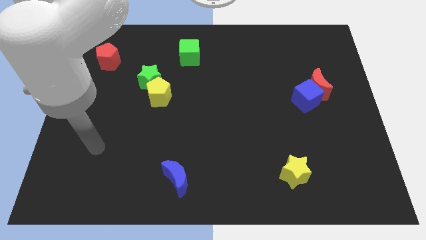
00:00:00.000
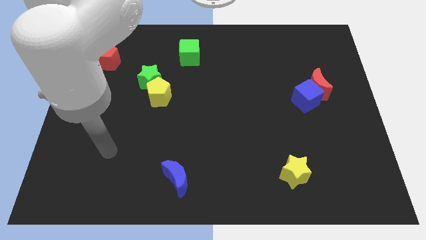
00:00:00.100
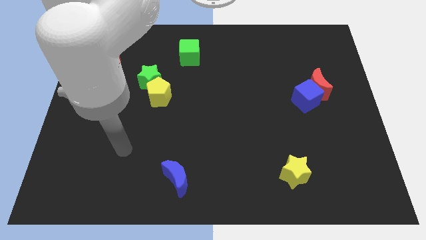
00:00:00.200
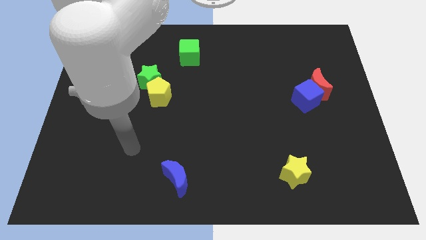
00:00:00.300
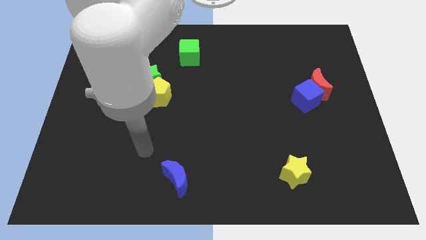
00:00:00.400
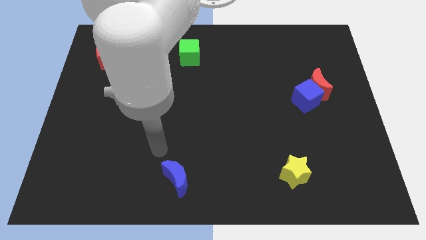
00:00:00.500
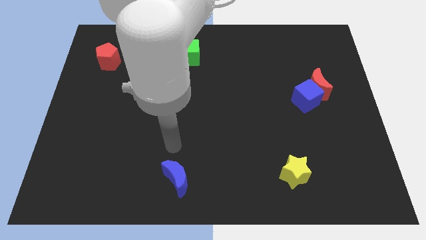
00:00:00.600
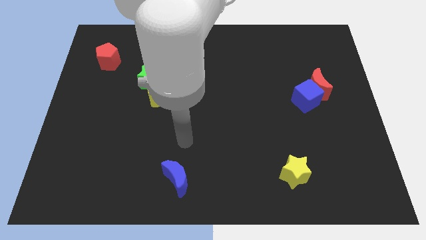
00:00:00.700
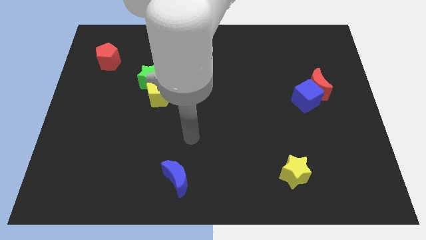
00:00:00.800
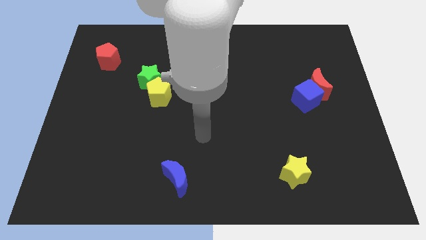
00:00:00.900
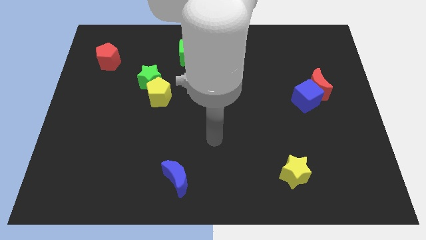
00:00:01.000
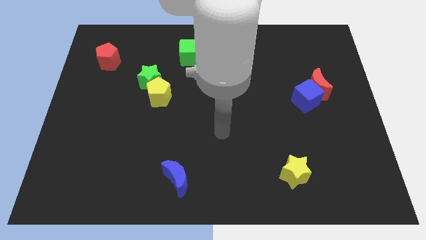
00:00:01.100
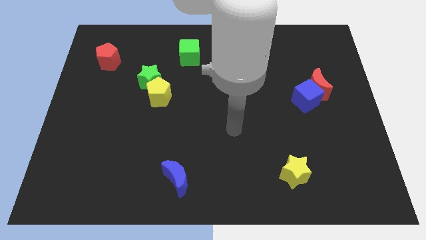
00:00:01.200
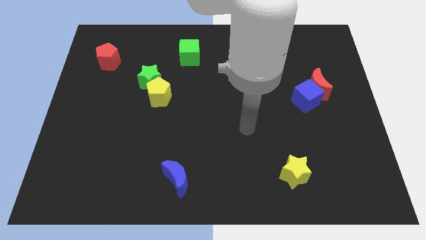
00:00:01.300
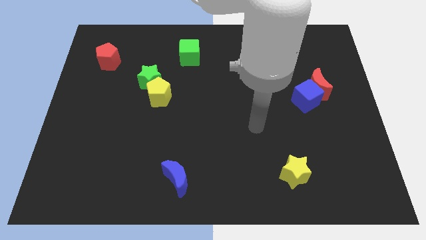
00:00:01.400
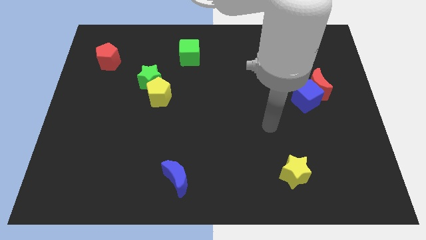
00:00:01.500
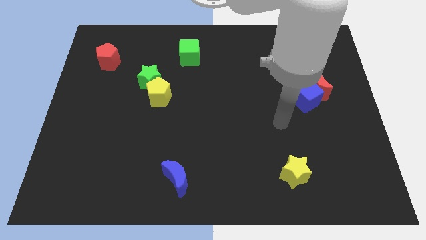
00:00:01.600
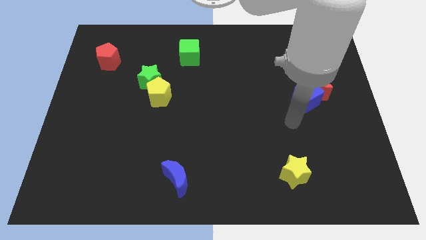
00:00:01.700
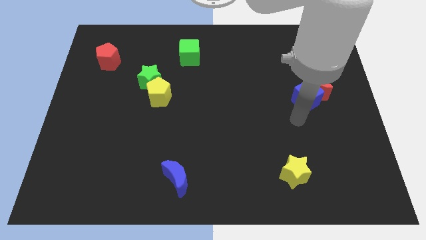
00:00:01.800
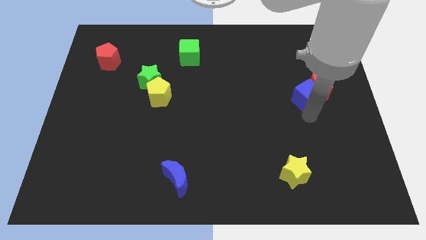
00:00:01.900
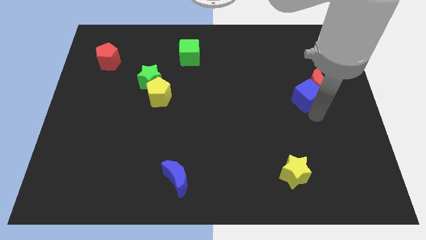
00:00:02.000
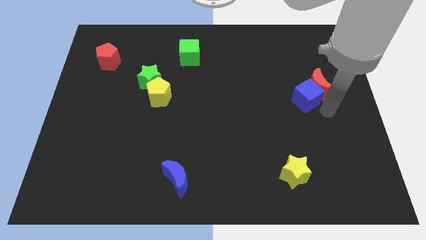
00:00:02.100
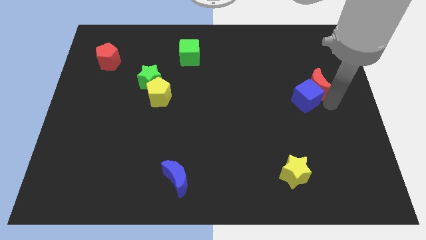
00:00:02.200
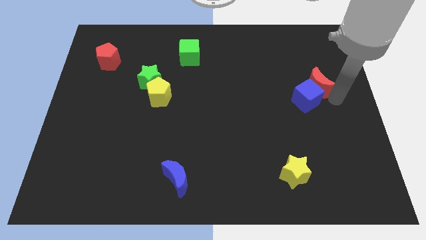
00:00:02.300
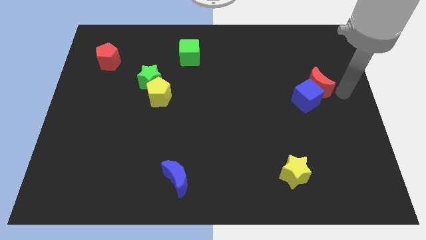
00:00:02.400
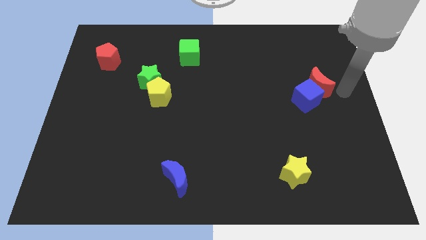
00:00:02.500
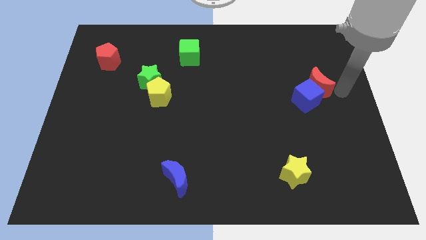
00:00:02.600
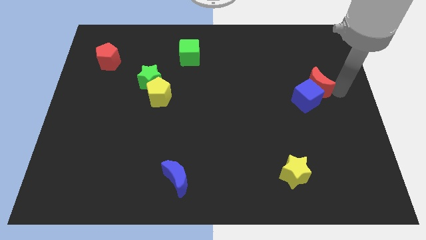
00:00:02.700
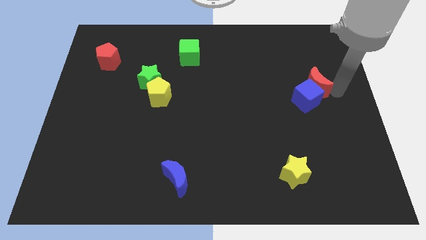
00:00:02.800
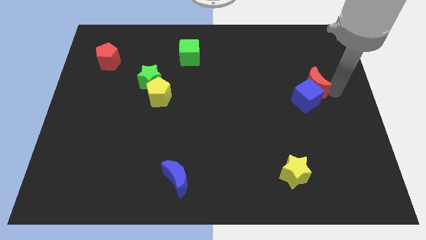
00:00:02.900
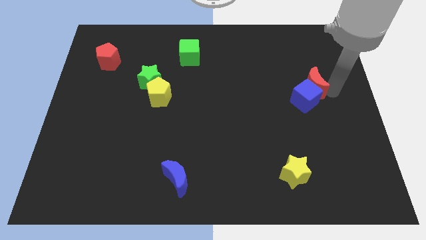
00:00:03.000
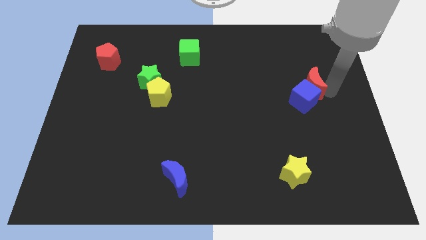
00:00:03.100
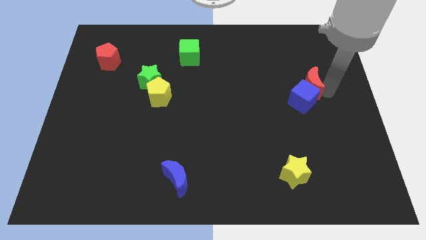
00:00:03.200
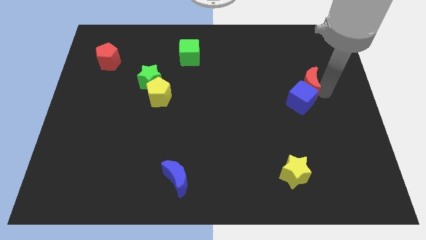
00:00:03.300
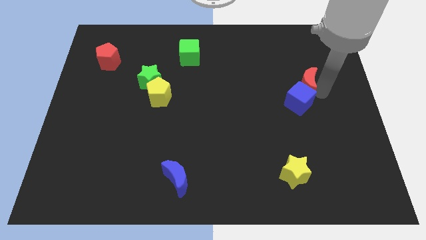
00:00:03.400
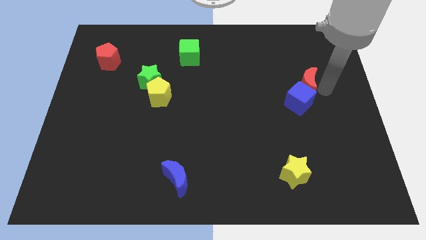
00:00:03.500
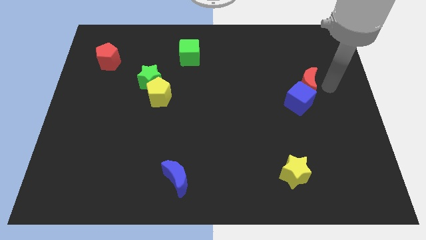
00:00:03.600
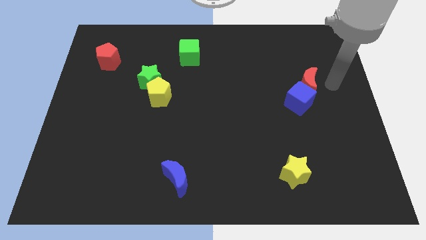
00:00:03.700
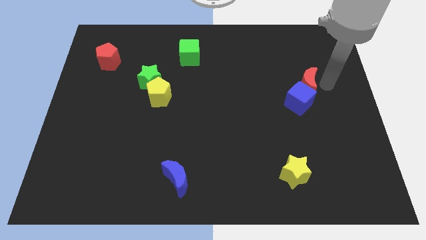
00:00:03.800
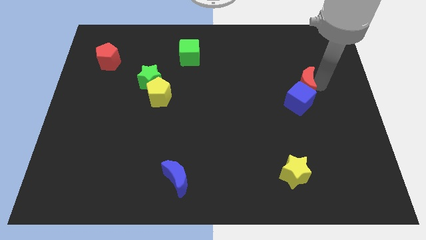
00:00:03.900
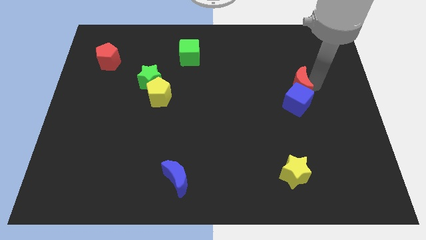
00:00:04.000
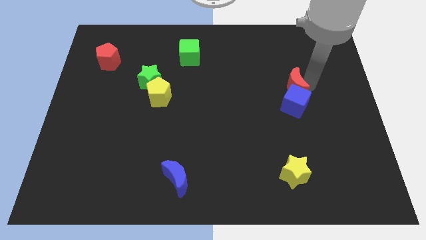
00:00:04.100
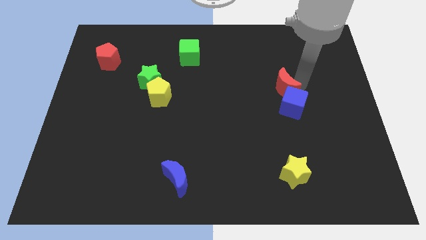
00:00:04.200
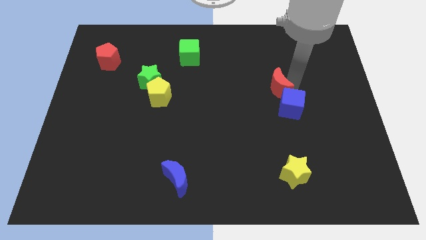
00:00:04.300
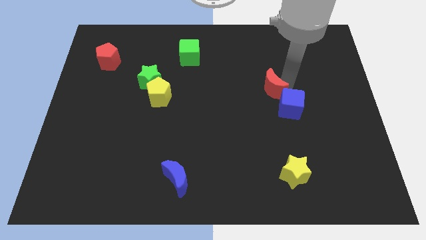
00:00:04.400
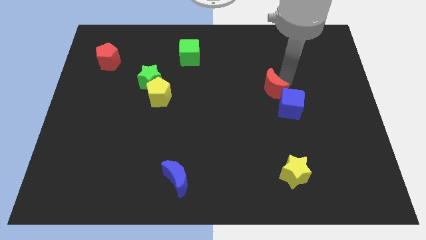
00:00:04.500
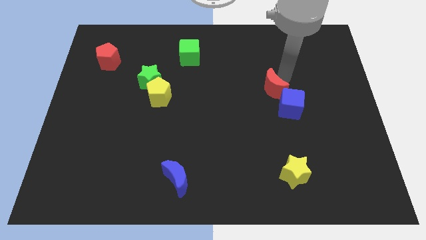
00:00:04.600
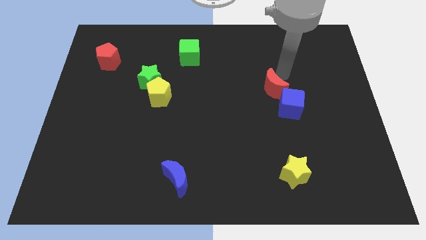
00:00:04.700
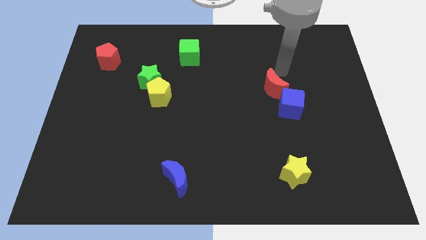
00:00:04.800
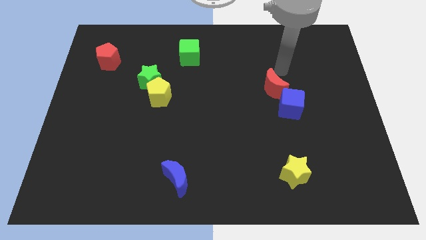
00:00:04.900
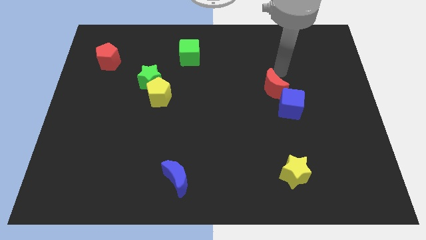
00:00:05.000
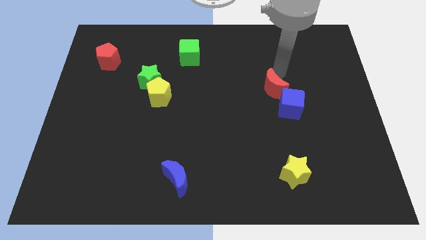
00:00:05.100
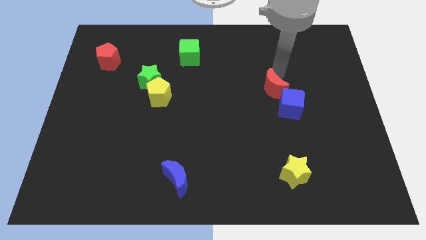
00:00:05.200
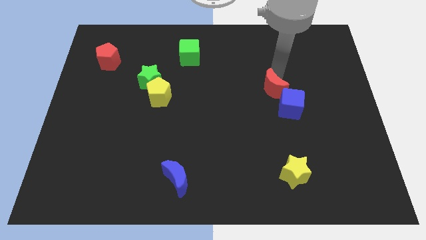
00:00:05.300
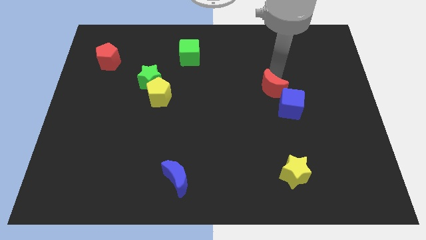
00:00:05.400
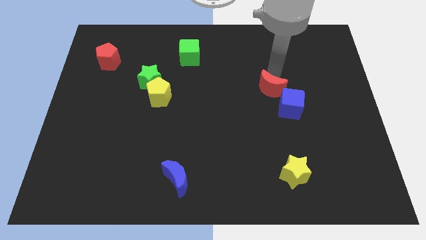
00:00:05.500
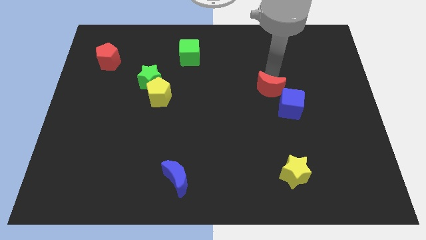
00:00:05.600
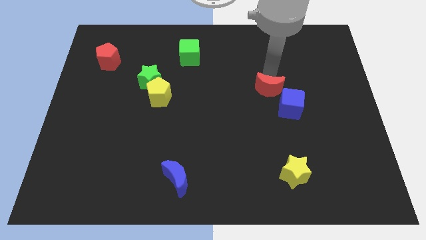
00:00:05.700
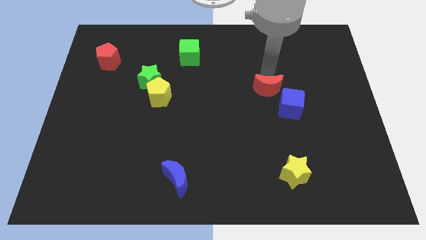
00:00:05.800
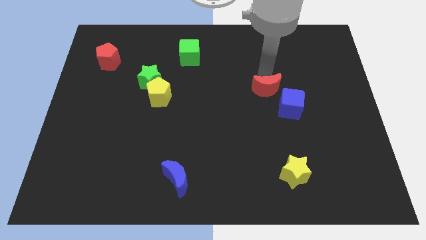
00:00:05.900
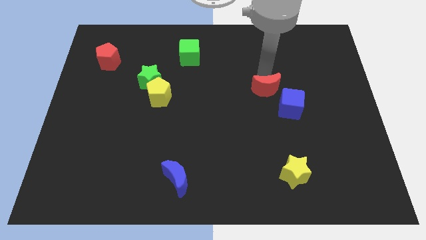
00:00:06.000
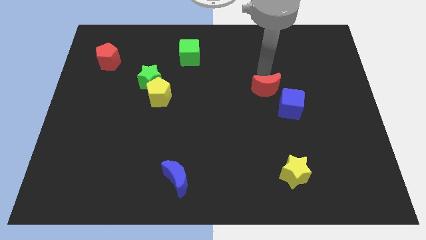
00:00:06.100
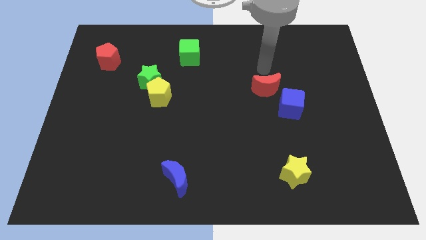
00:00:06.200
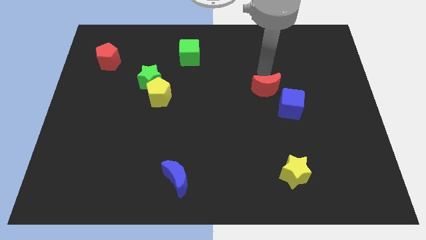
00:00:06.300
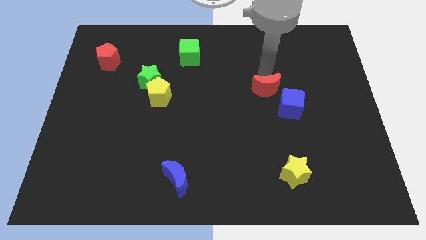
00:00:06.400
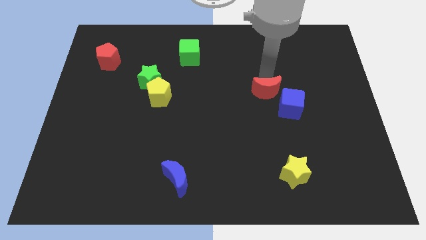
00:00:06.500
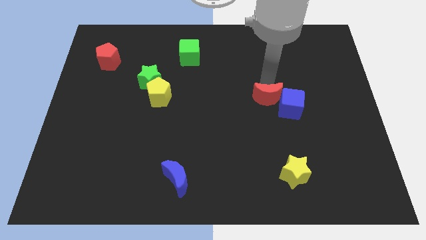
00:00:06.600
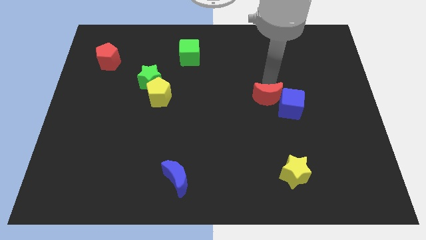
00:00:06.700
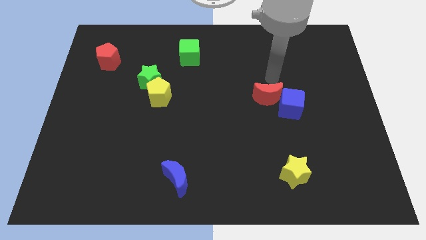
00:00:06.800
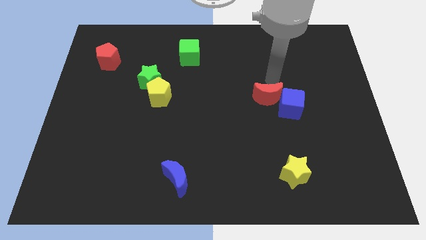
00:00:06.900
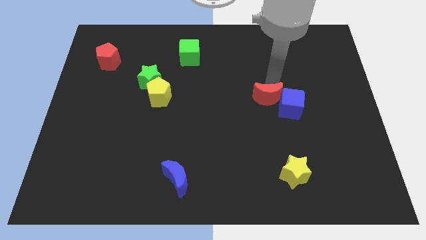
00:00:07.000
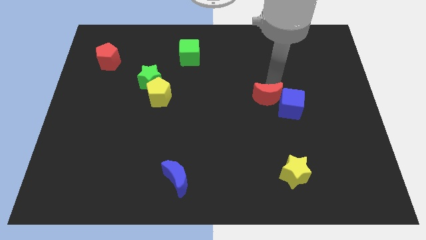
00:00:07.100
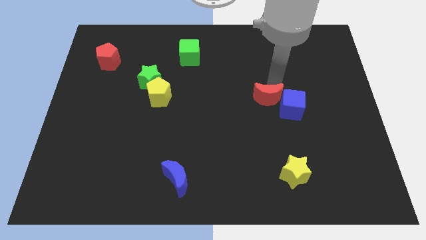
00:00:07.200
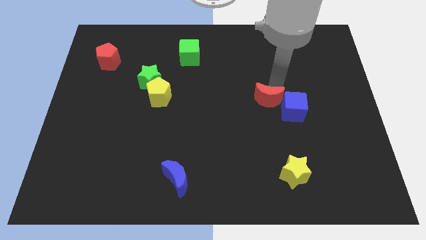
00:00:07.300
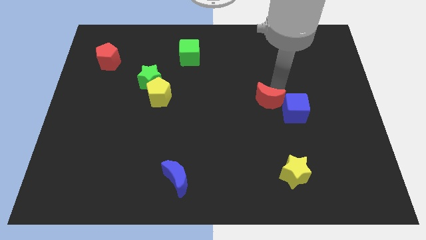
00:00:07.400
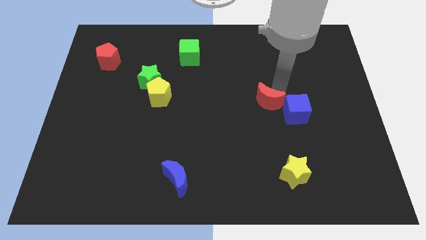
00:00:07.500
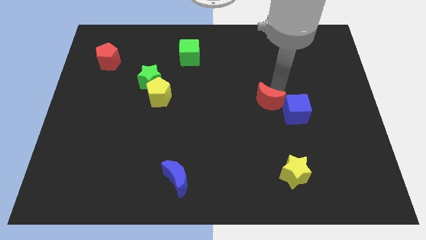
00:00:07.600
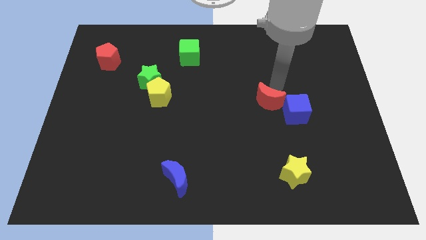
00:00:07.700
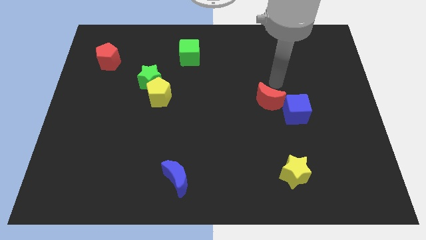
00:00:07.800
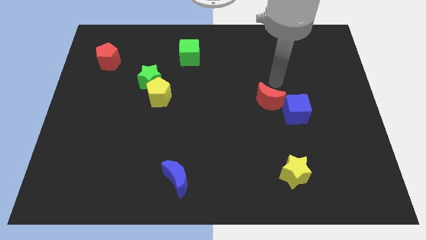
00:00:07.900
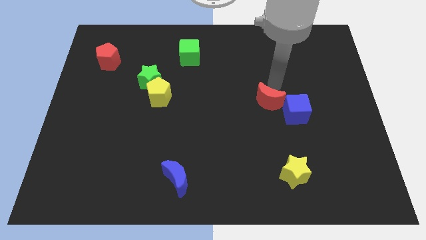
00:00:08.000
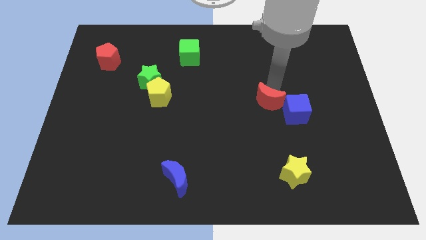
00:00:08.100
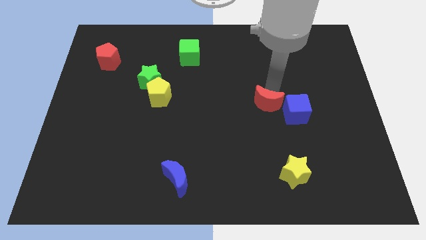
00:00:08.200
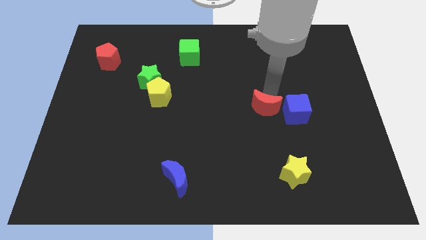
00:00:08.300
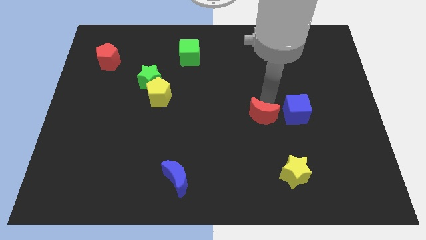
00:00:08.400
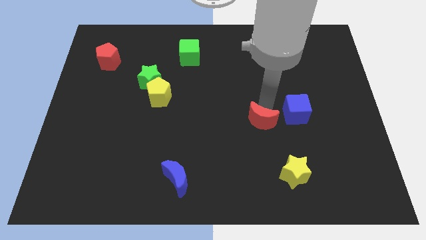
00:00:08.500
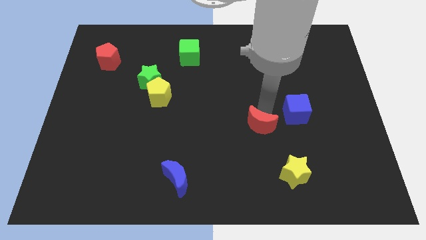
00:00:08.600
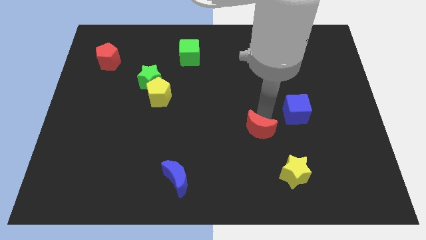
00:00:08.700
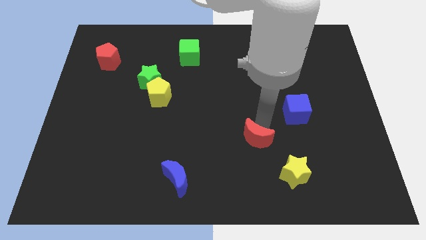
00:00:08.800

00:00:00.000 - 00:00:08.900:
slide the red moon diagonally down and left
